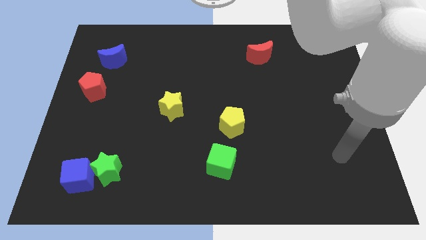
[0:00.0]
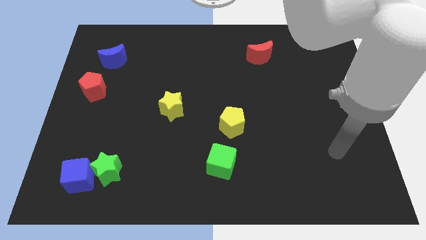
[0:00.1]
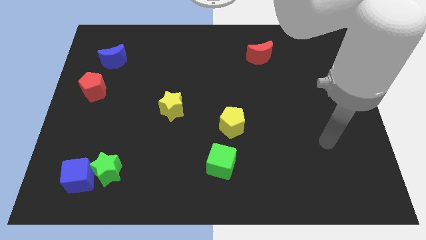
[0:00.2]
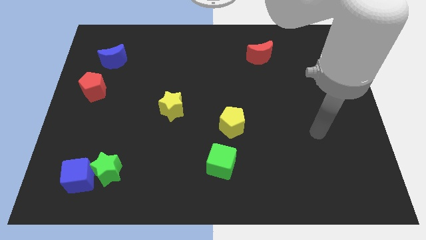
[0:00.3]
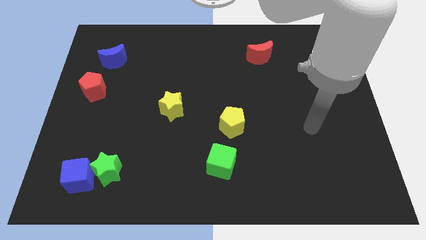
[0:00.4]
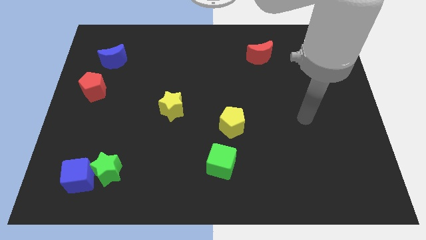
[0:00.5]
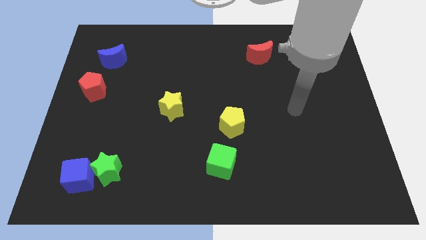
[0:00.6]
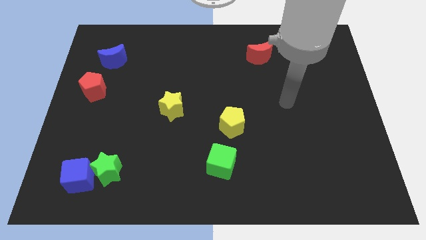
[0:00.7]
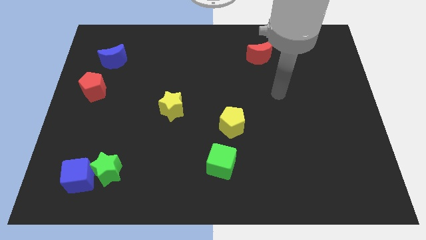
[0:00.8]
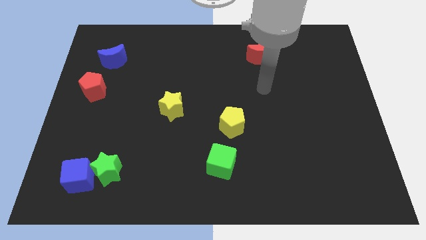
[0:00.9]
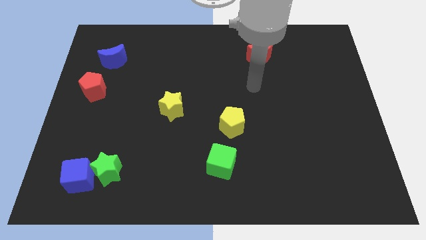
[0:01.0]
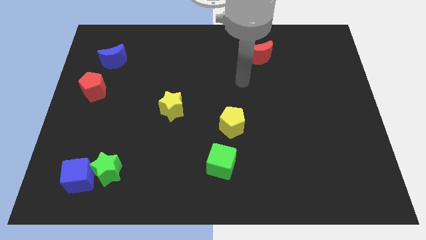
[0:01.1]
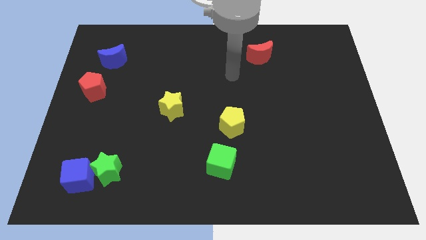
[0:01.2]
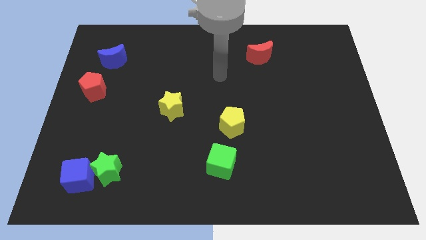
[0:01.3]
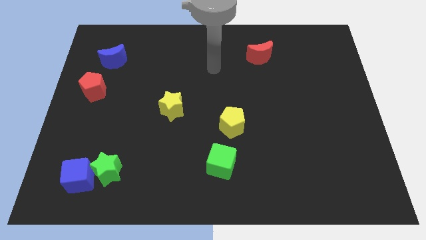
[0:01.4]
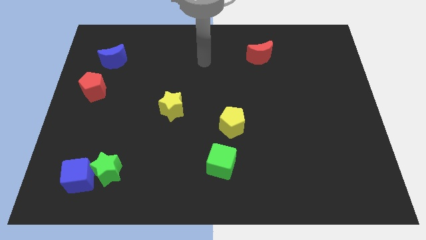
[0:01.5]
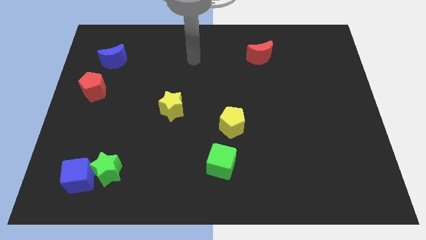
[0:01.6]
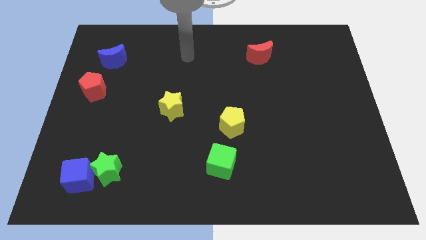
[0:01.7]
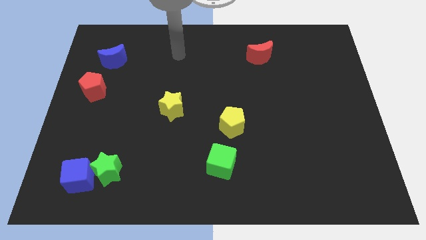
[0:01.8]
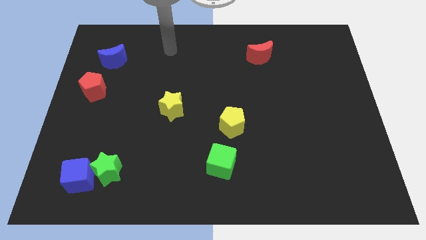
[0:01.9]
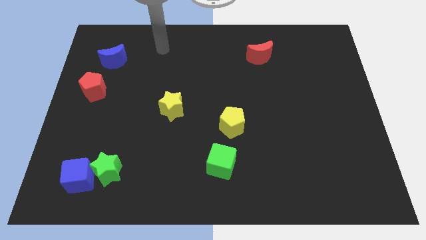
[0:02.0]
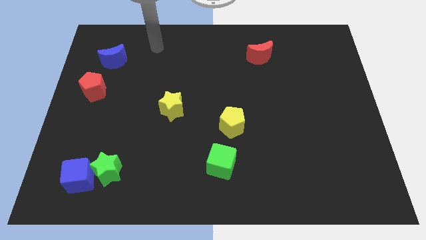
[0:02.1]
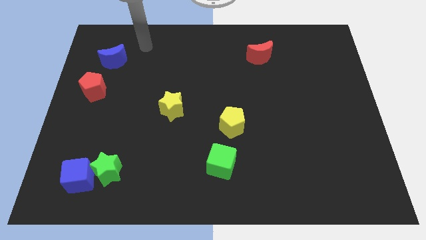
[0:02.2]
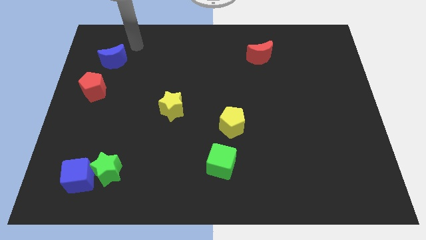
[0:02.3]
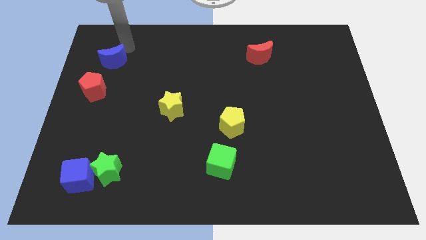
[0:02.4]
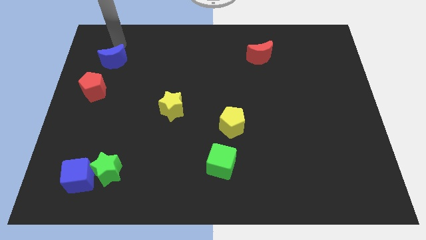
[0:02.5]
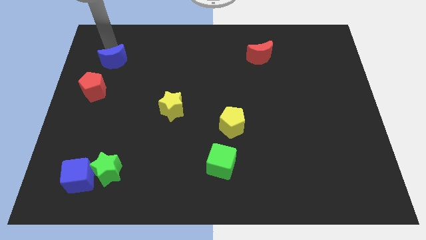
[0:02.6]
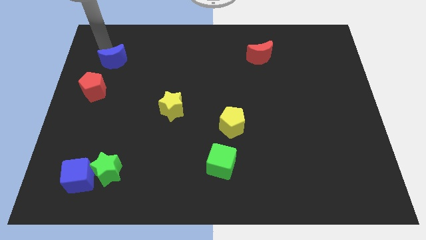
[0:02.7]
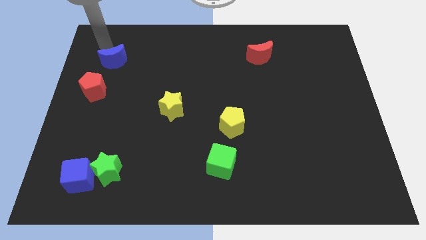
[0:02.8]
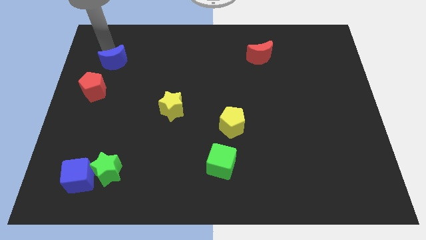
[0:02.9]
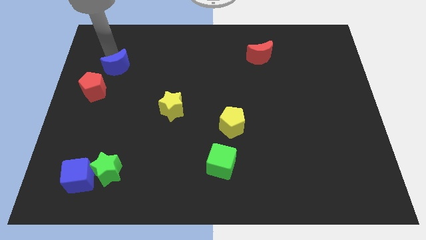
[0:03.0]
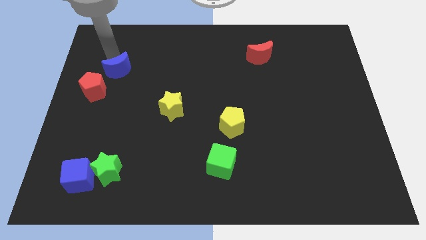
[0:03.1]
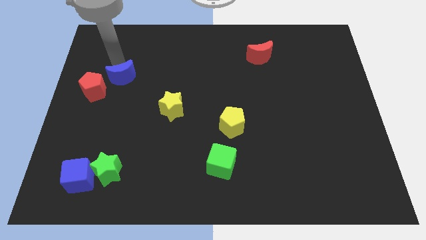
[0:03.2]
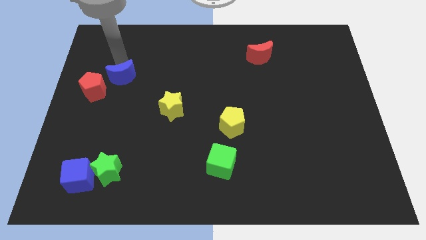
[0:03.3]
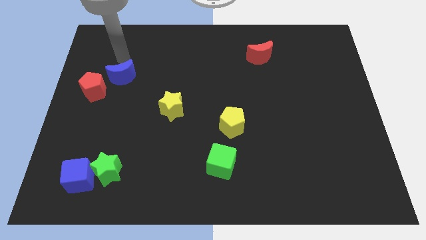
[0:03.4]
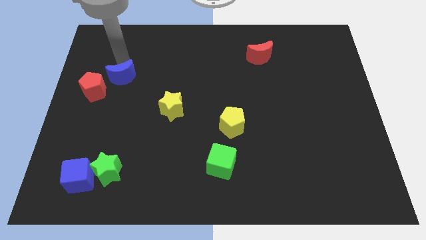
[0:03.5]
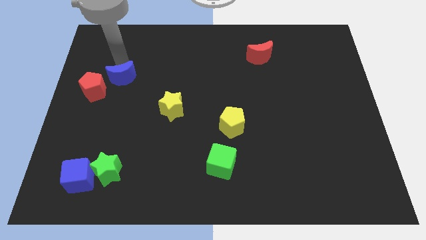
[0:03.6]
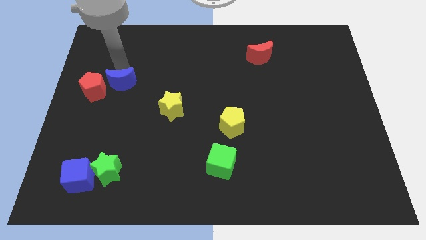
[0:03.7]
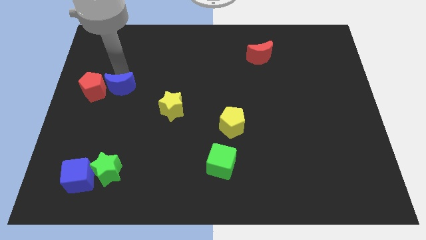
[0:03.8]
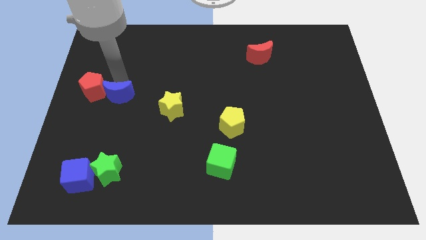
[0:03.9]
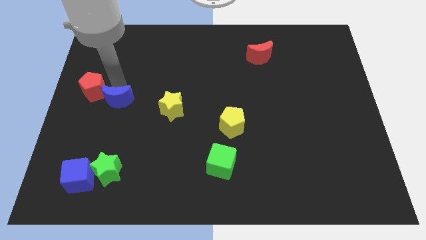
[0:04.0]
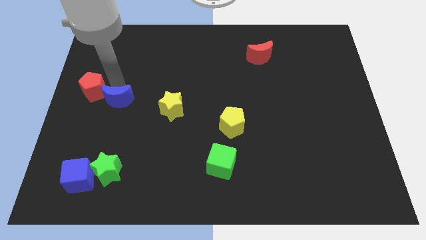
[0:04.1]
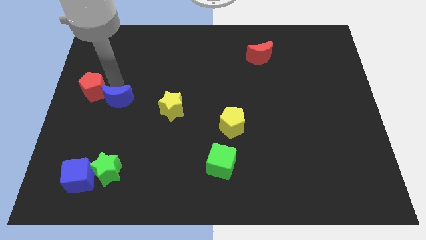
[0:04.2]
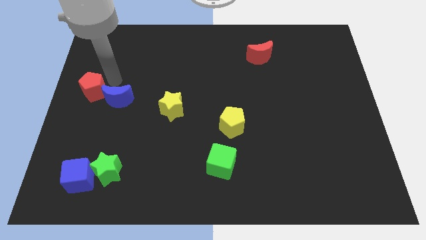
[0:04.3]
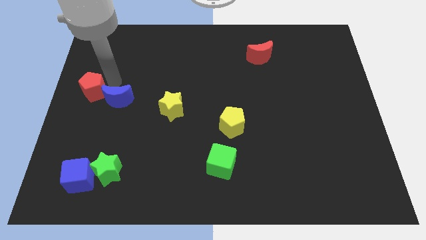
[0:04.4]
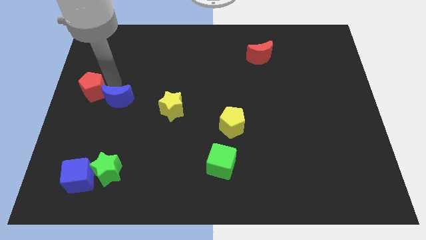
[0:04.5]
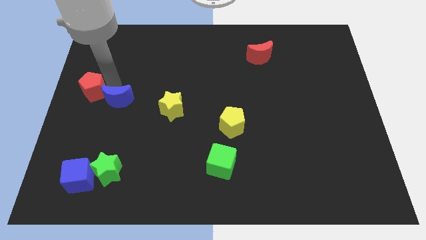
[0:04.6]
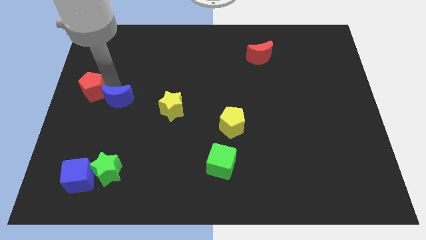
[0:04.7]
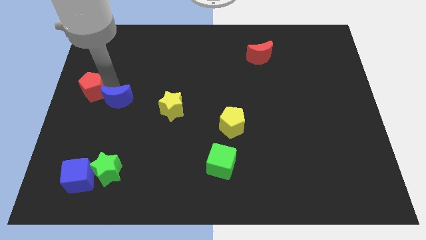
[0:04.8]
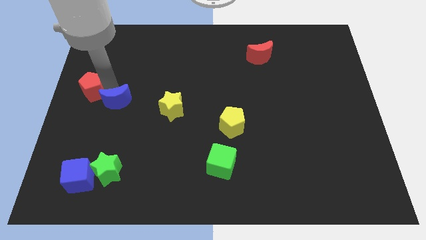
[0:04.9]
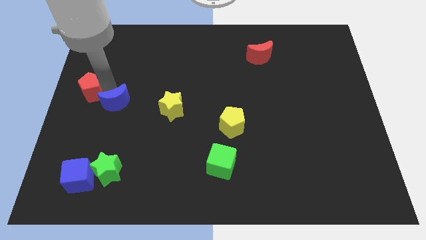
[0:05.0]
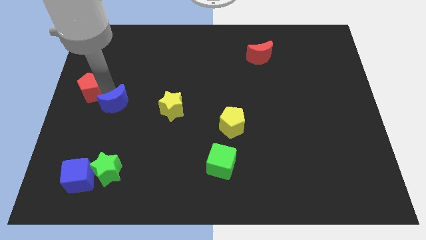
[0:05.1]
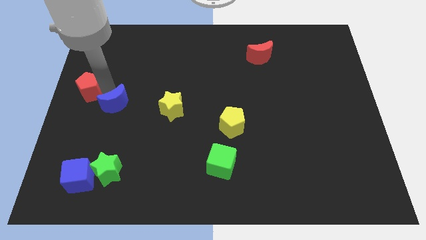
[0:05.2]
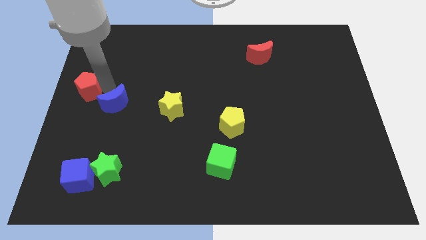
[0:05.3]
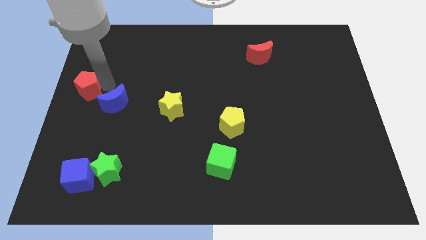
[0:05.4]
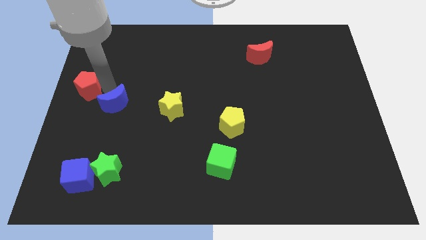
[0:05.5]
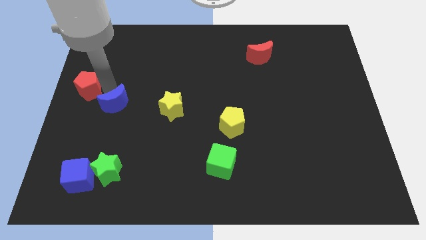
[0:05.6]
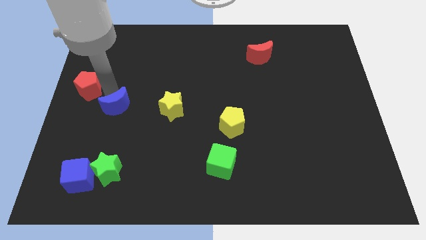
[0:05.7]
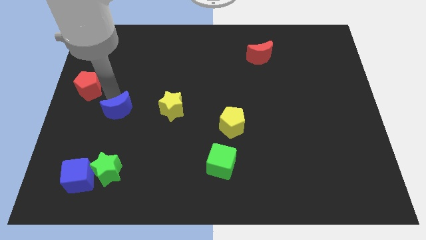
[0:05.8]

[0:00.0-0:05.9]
slide the blue moon to the top side of the green star

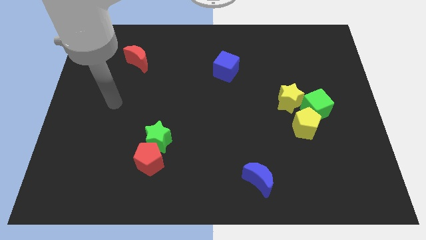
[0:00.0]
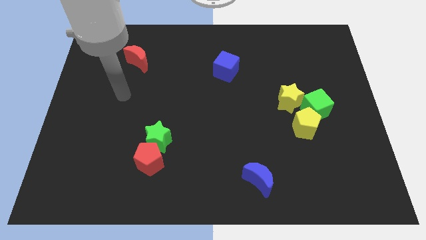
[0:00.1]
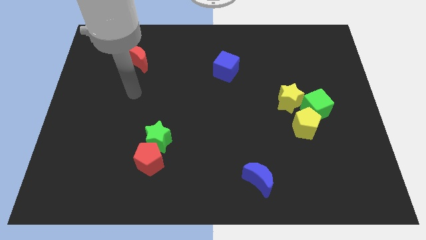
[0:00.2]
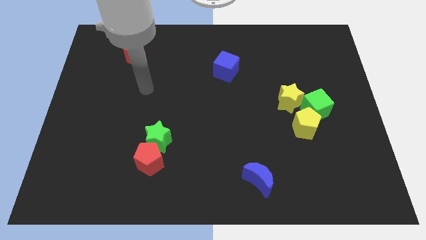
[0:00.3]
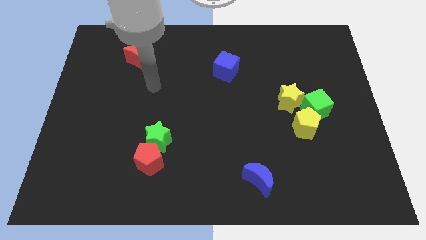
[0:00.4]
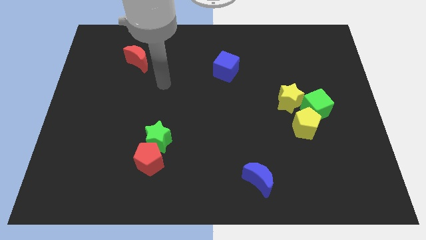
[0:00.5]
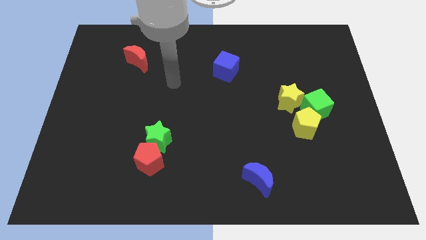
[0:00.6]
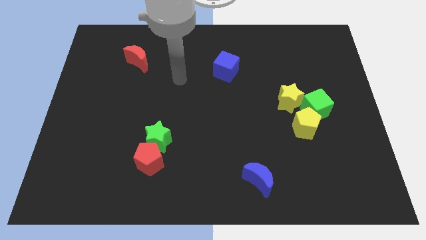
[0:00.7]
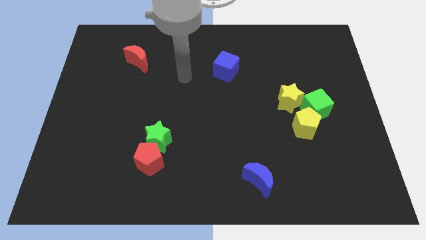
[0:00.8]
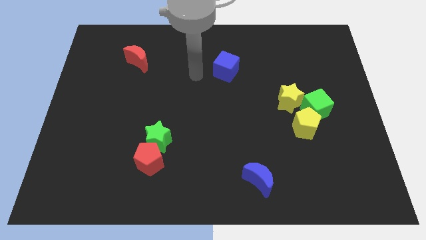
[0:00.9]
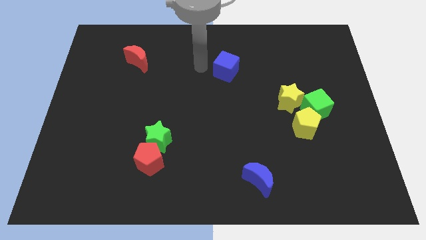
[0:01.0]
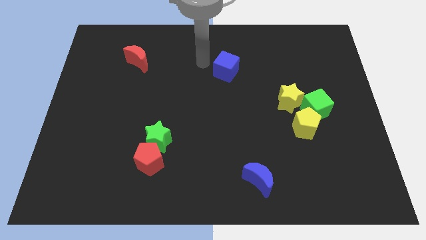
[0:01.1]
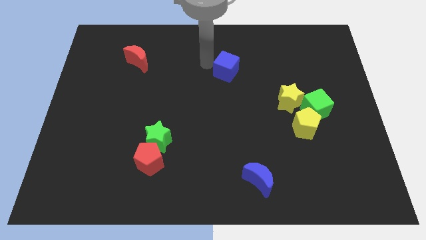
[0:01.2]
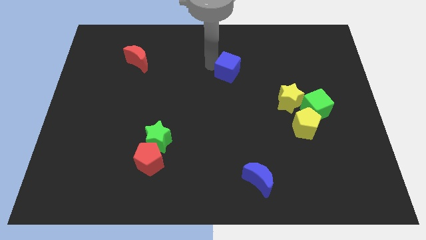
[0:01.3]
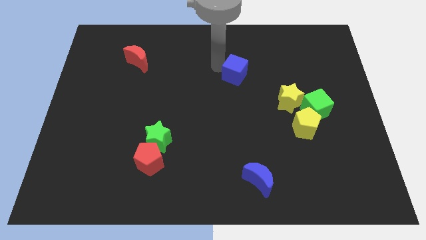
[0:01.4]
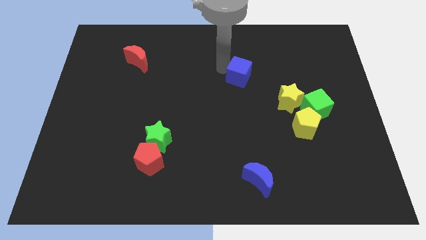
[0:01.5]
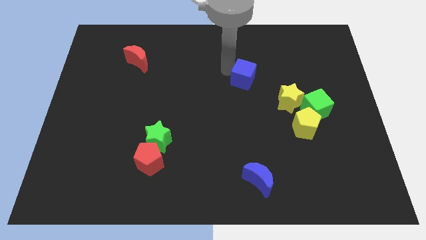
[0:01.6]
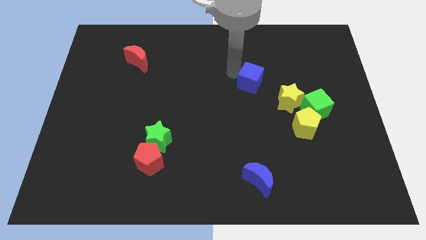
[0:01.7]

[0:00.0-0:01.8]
slide the blue cube to the top left of the yellow star
